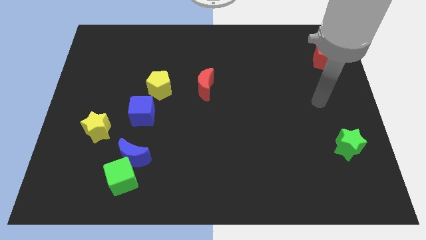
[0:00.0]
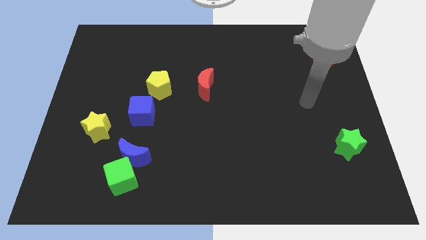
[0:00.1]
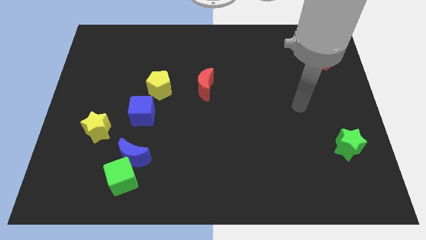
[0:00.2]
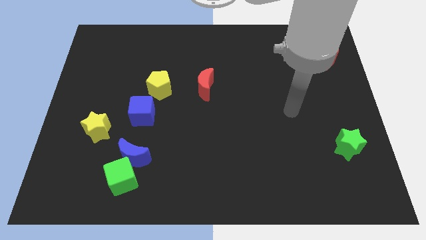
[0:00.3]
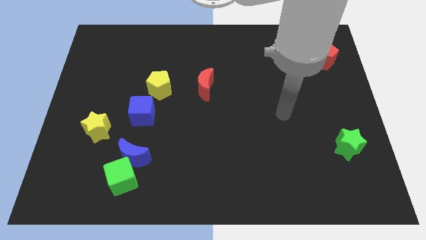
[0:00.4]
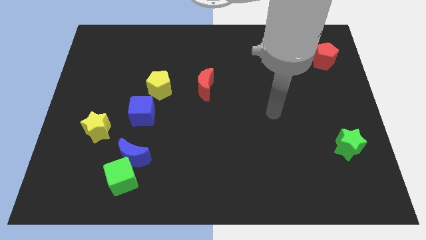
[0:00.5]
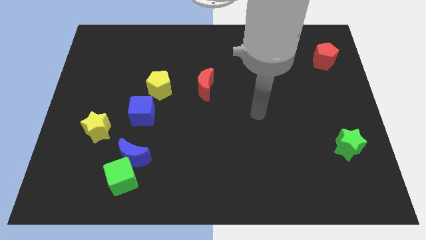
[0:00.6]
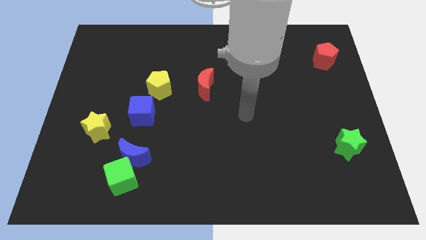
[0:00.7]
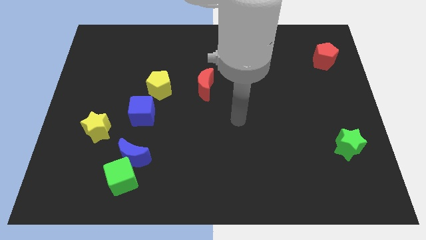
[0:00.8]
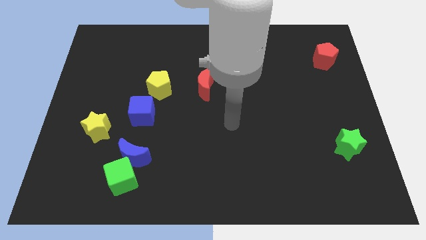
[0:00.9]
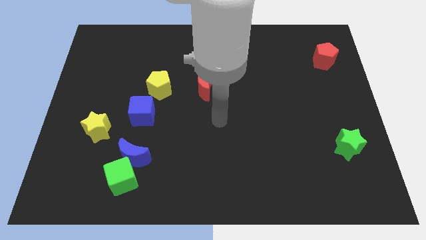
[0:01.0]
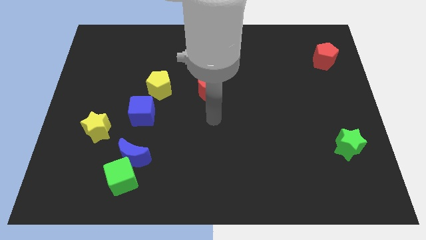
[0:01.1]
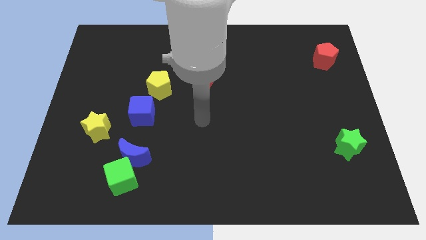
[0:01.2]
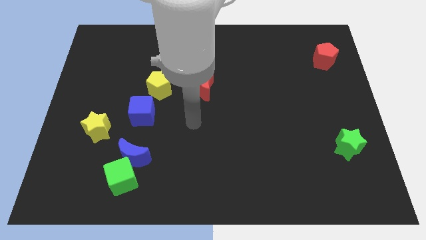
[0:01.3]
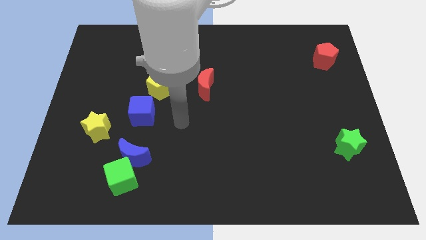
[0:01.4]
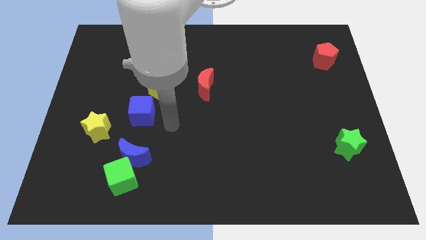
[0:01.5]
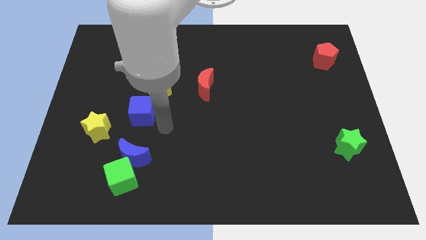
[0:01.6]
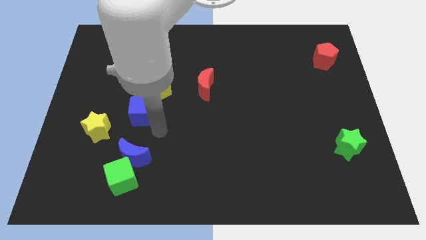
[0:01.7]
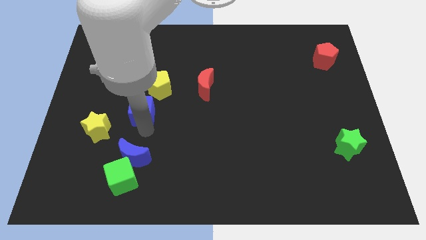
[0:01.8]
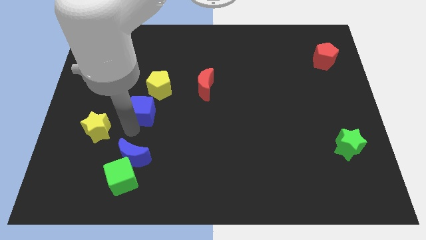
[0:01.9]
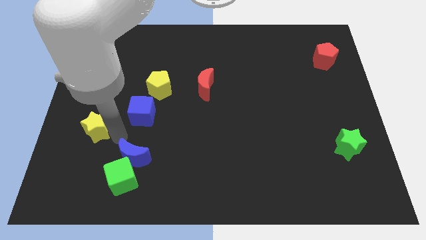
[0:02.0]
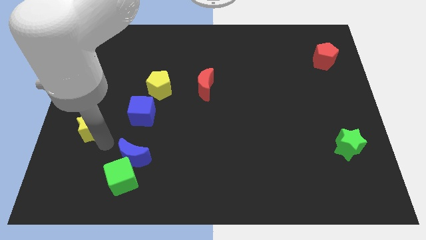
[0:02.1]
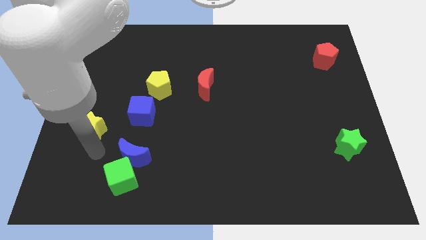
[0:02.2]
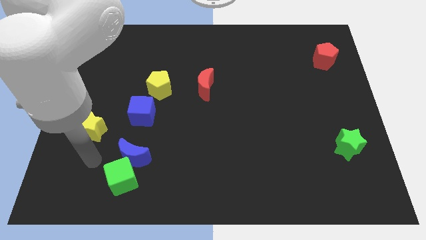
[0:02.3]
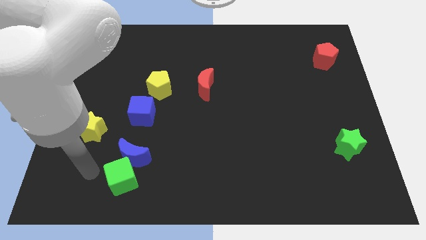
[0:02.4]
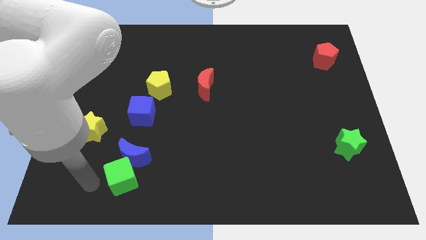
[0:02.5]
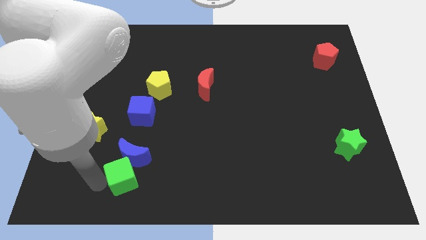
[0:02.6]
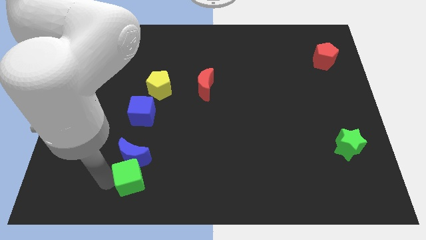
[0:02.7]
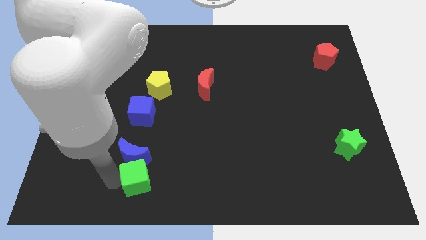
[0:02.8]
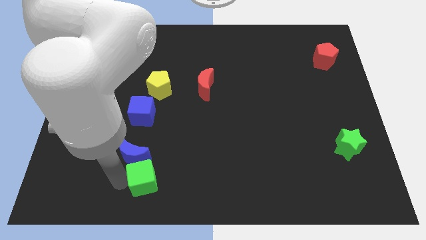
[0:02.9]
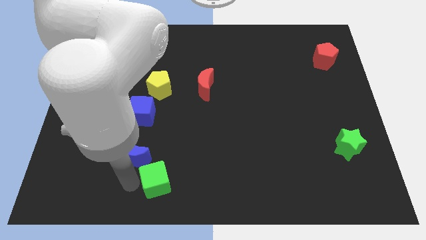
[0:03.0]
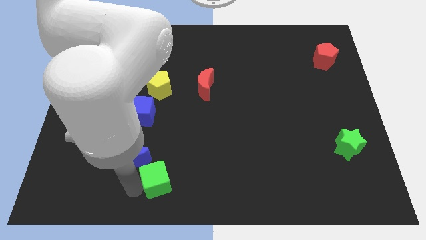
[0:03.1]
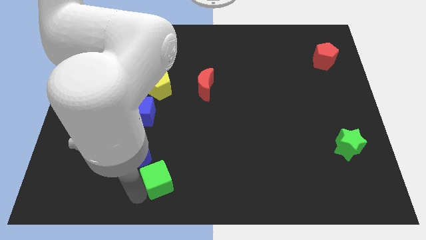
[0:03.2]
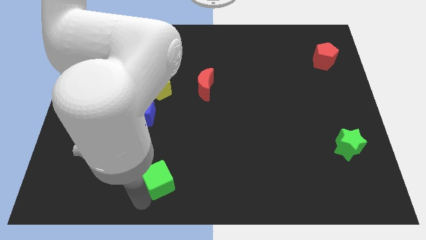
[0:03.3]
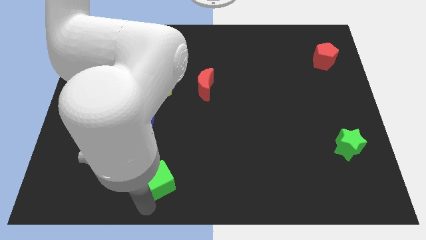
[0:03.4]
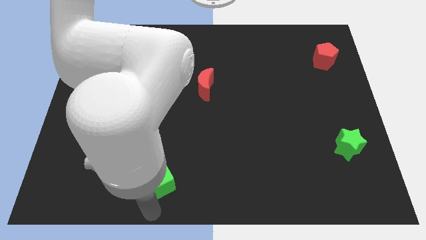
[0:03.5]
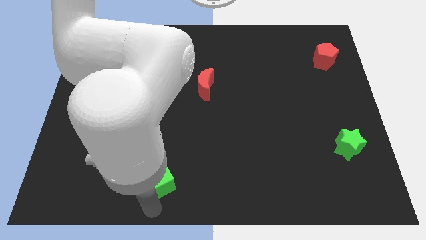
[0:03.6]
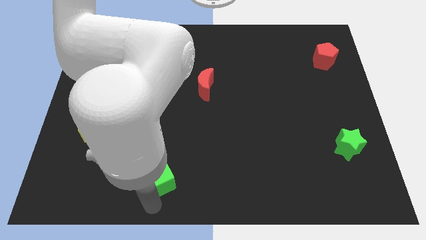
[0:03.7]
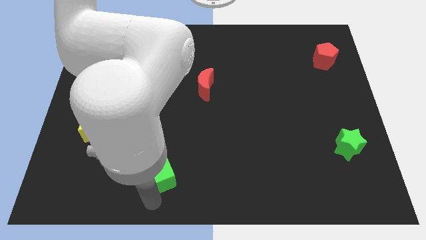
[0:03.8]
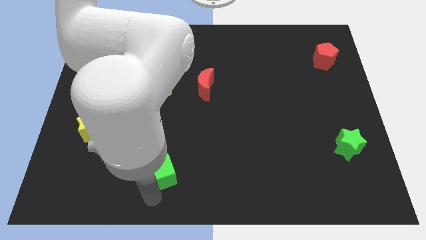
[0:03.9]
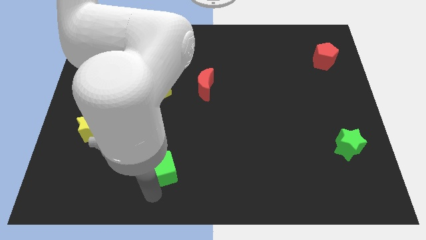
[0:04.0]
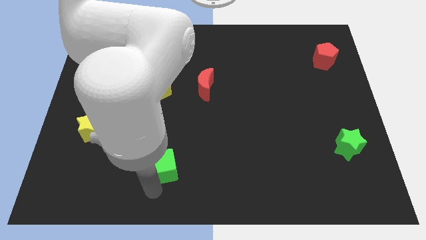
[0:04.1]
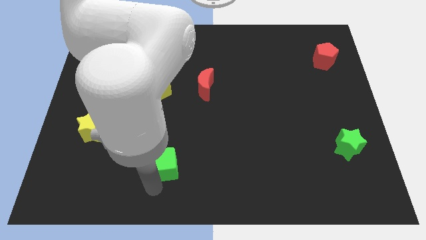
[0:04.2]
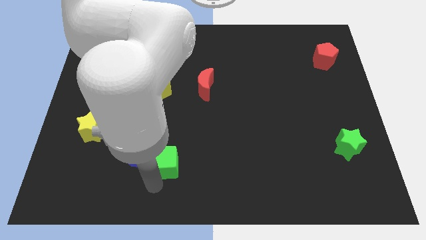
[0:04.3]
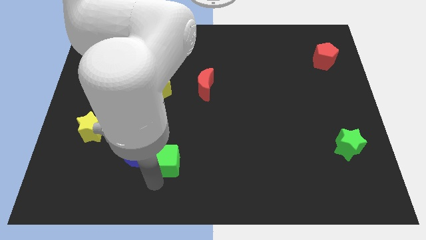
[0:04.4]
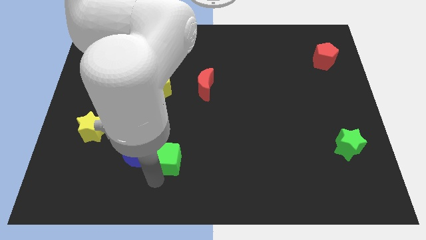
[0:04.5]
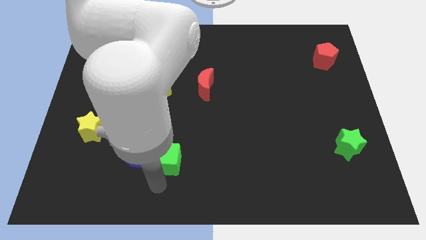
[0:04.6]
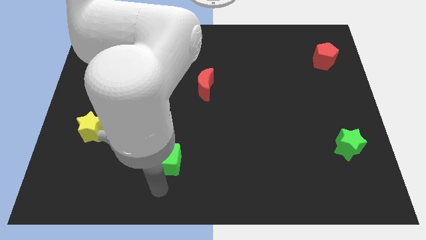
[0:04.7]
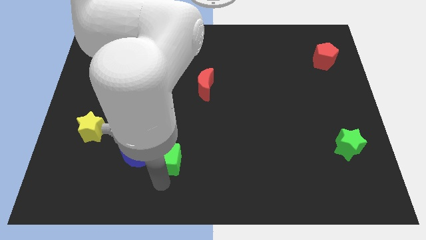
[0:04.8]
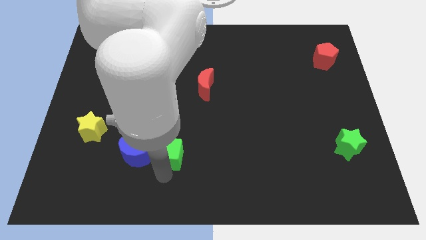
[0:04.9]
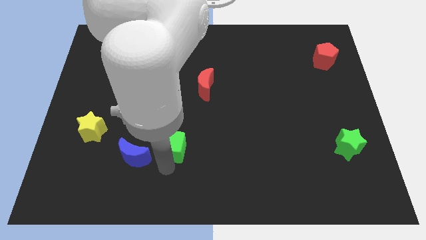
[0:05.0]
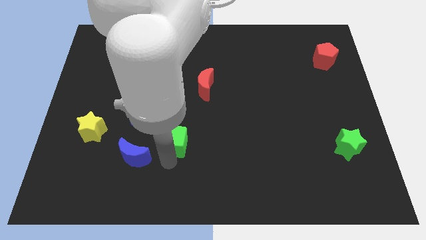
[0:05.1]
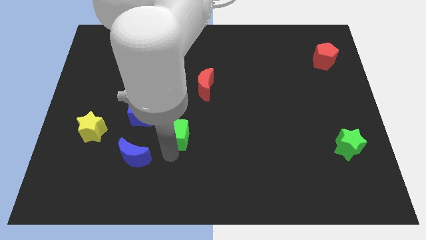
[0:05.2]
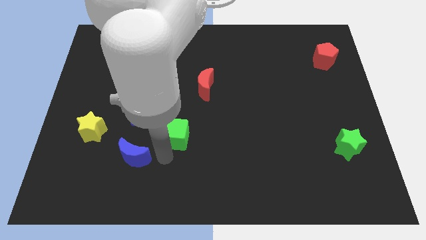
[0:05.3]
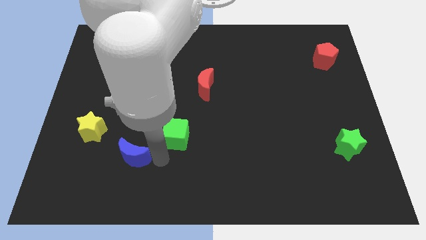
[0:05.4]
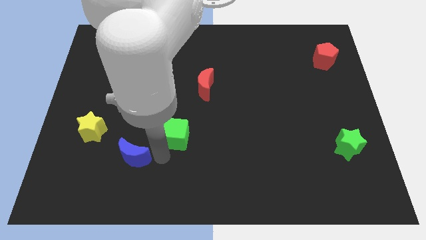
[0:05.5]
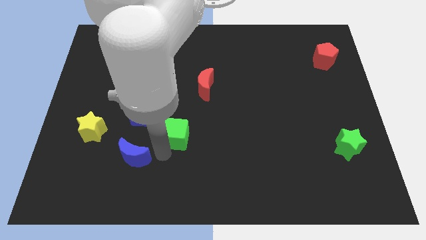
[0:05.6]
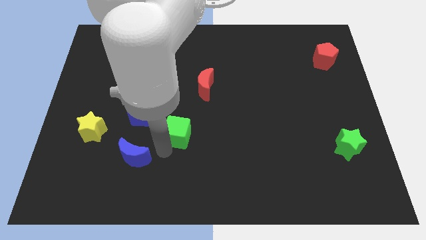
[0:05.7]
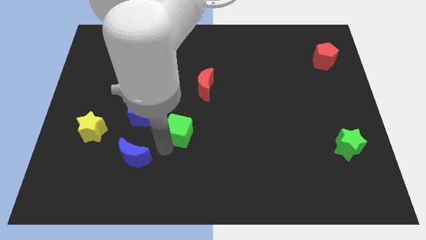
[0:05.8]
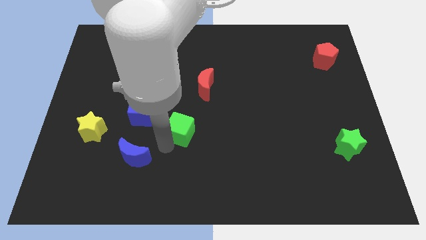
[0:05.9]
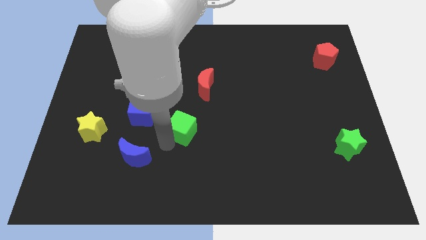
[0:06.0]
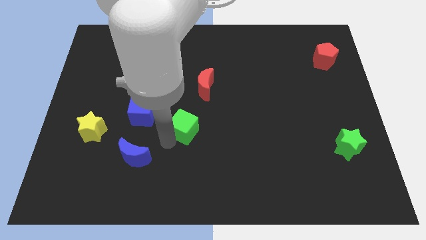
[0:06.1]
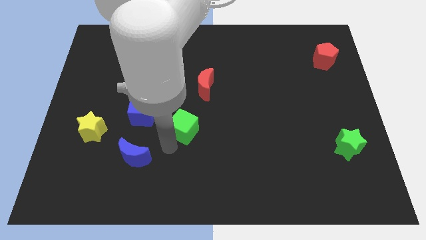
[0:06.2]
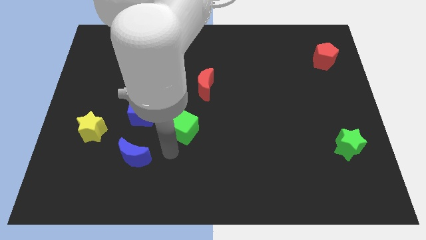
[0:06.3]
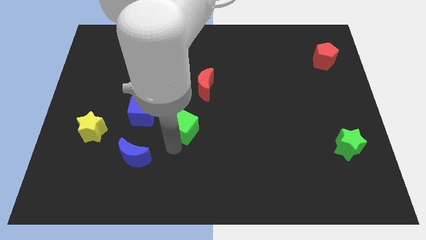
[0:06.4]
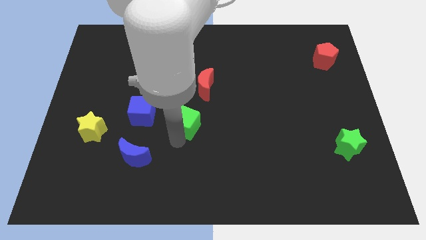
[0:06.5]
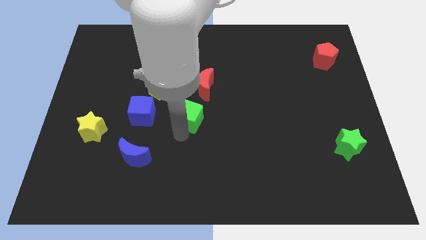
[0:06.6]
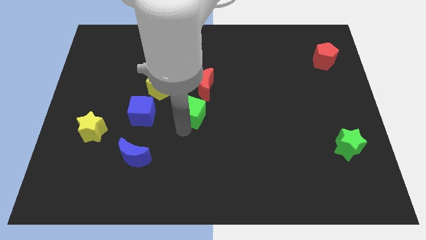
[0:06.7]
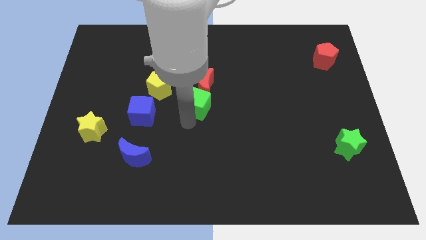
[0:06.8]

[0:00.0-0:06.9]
slide the green cube next to the red moon
